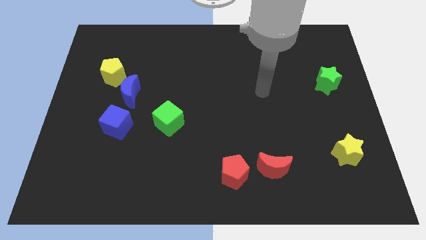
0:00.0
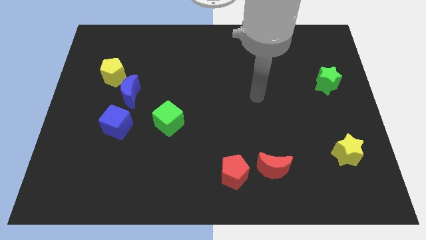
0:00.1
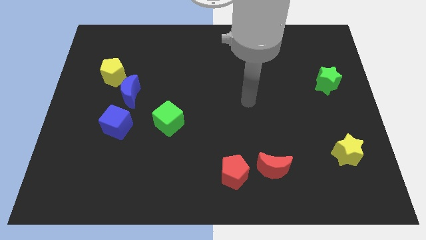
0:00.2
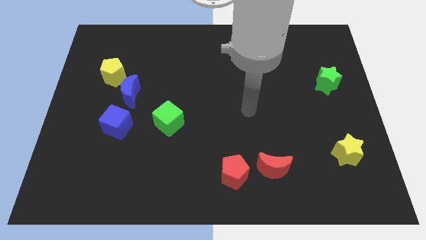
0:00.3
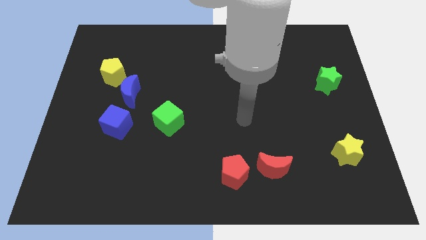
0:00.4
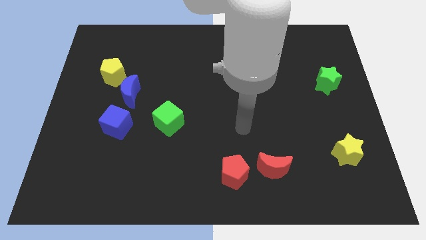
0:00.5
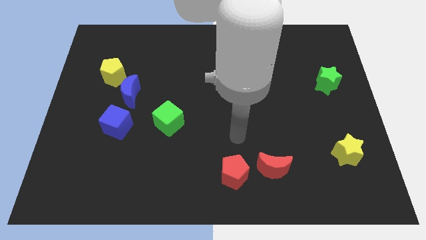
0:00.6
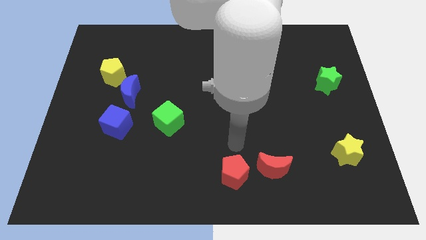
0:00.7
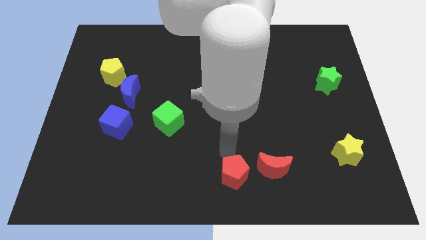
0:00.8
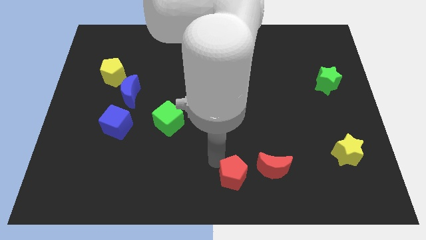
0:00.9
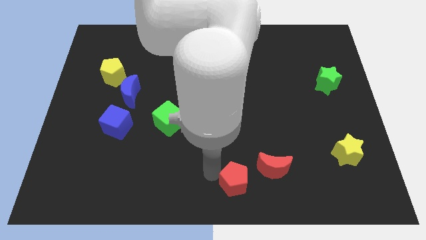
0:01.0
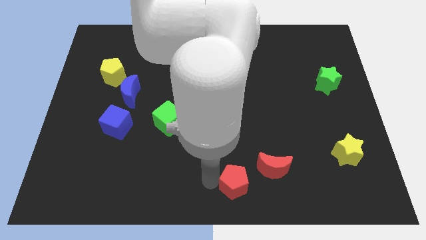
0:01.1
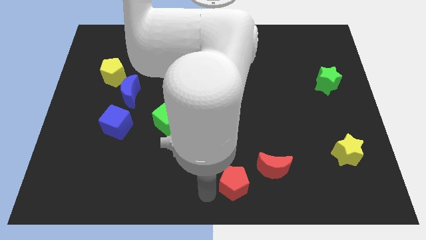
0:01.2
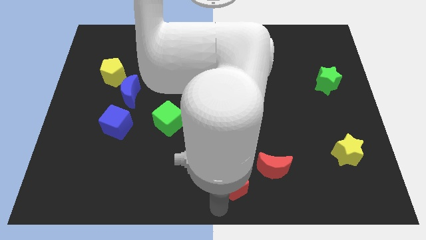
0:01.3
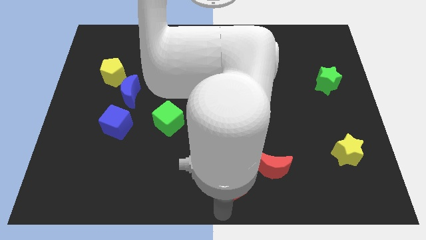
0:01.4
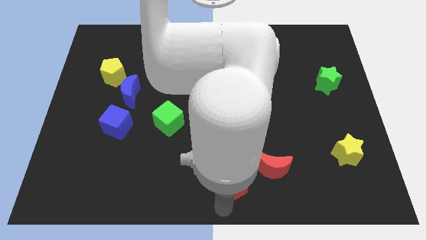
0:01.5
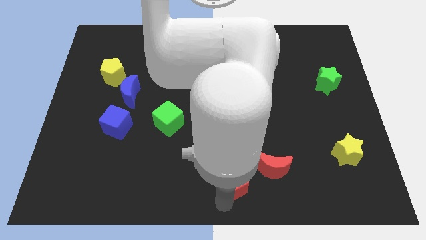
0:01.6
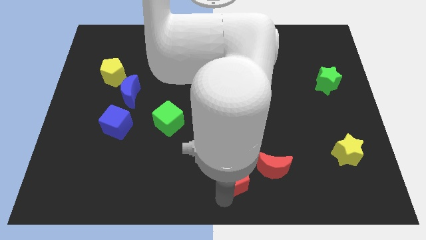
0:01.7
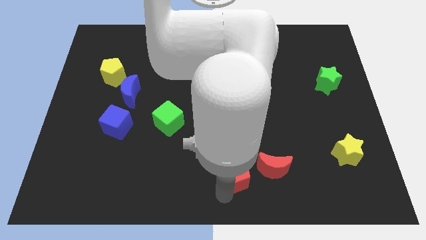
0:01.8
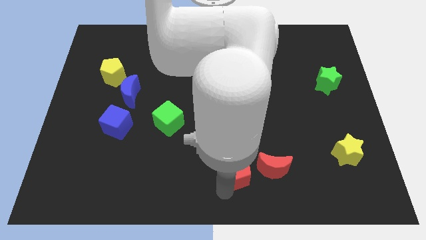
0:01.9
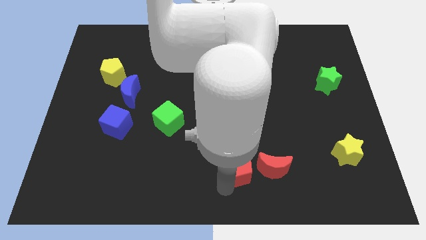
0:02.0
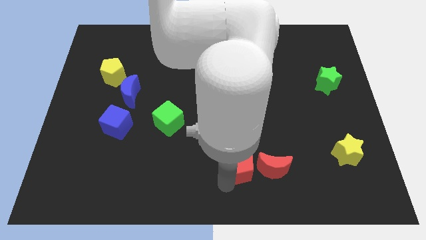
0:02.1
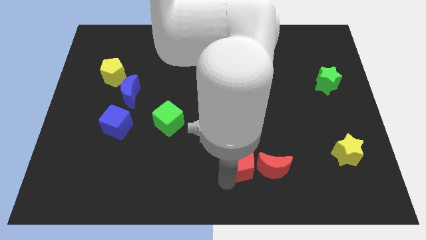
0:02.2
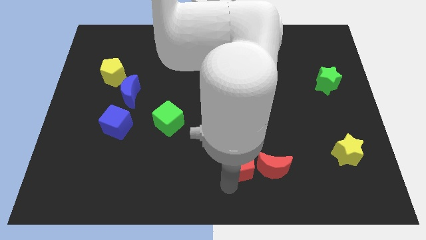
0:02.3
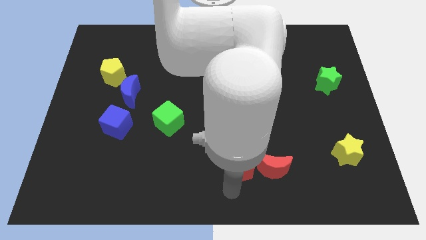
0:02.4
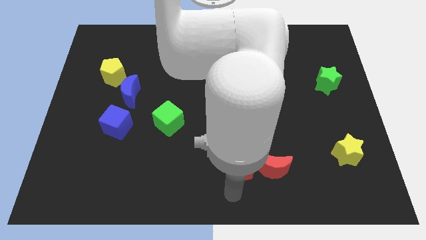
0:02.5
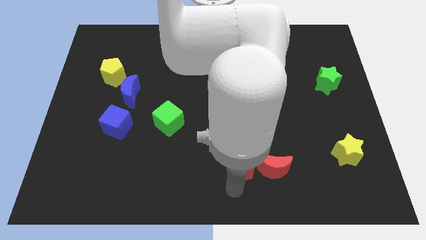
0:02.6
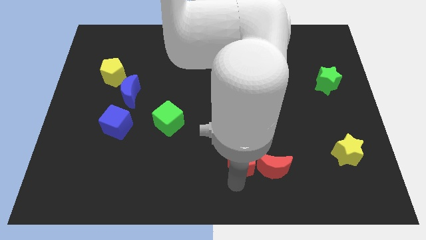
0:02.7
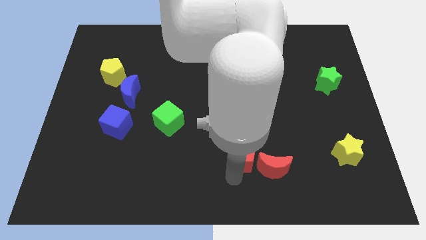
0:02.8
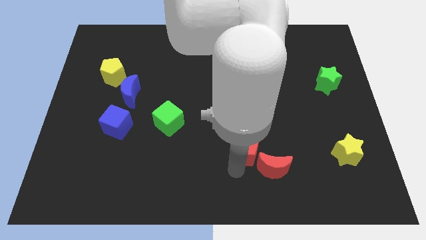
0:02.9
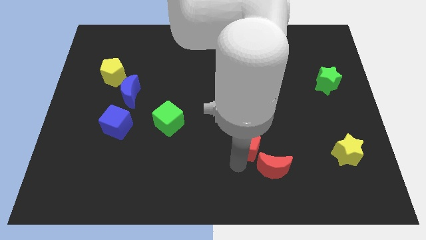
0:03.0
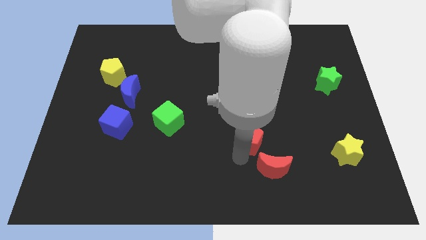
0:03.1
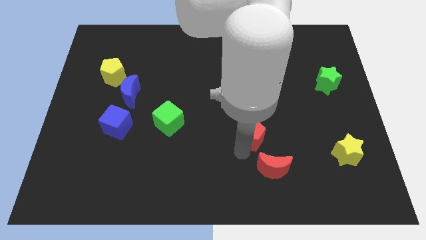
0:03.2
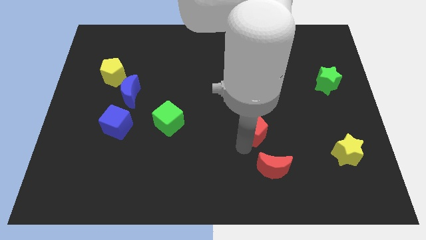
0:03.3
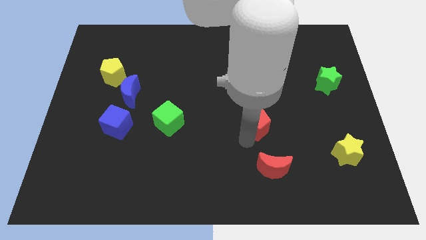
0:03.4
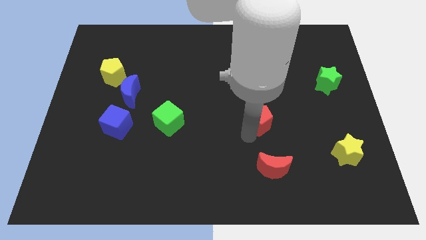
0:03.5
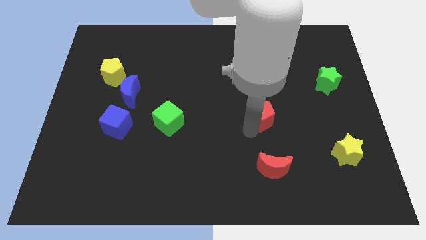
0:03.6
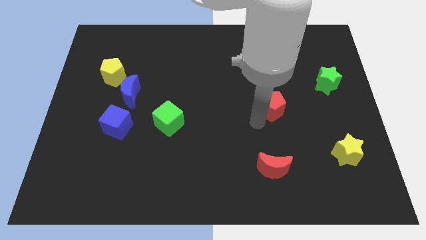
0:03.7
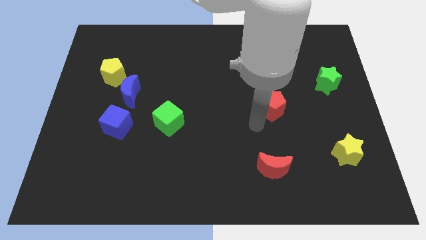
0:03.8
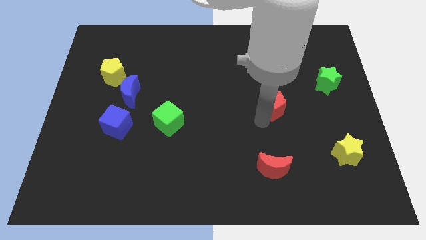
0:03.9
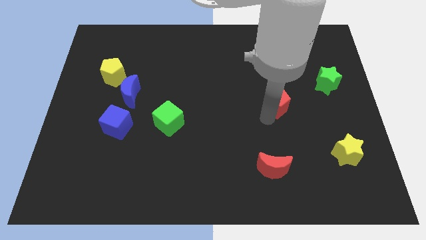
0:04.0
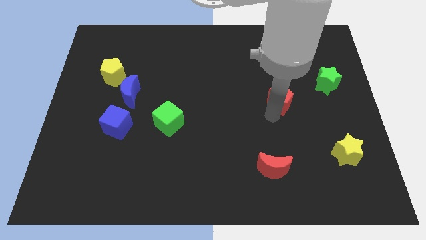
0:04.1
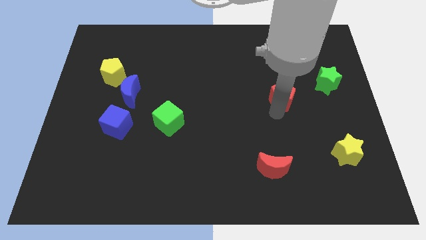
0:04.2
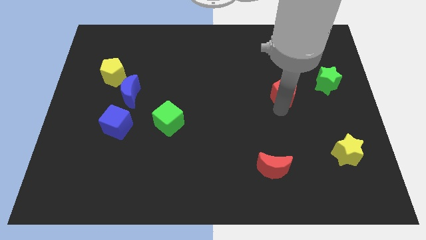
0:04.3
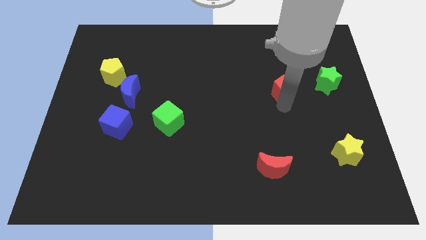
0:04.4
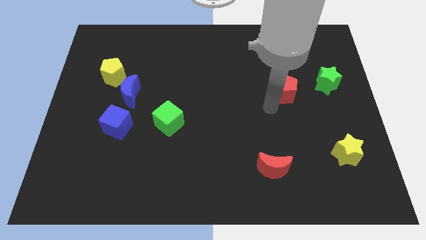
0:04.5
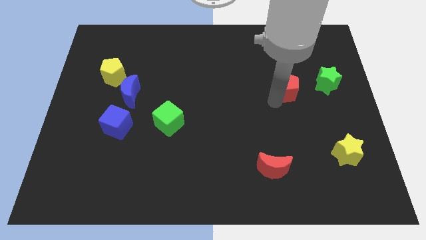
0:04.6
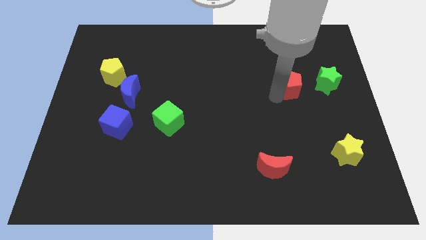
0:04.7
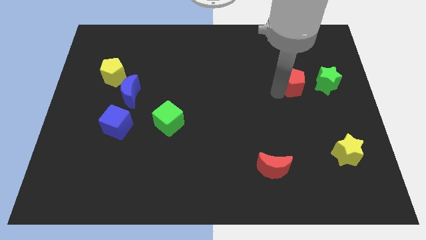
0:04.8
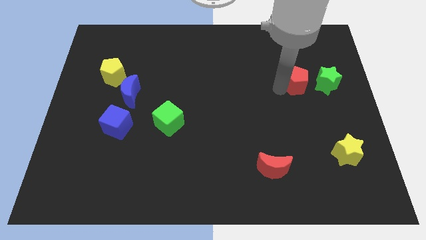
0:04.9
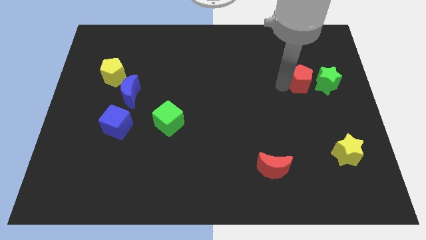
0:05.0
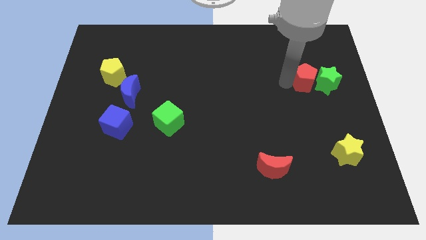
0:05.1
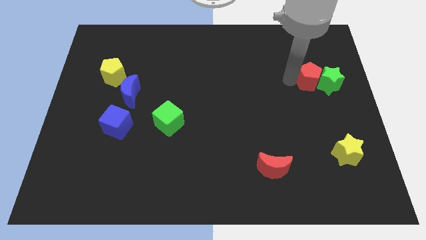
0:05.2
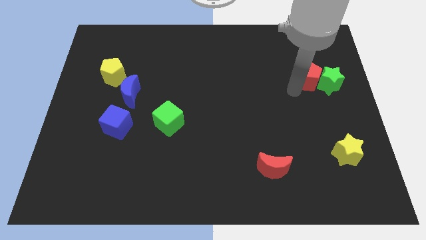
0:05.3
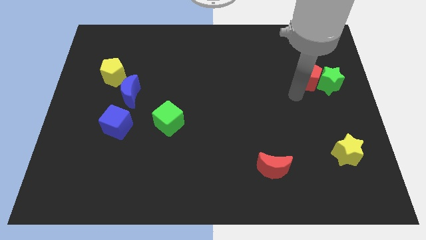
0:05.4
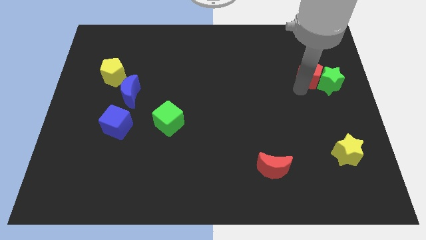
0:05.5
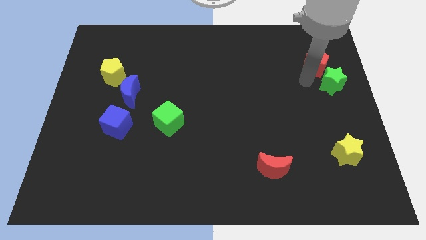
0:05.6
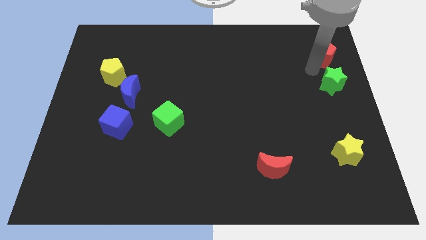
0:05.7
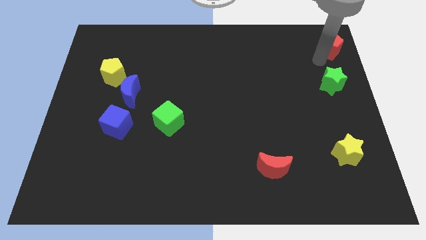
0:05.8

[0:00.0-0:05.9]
move the red pentagon to the top right corner

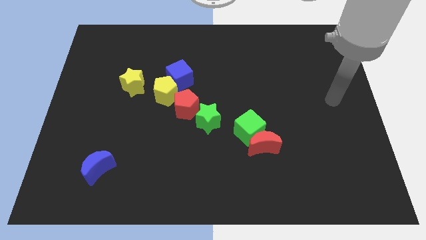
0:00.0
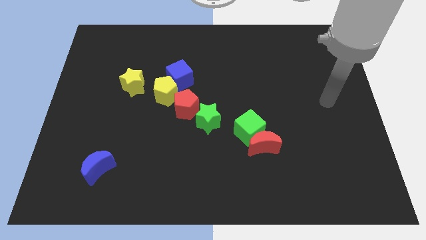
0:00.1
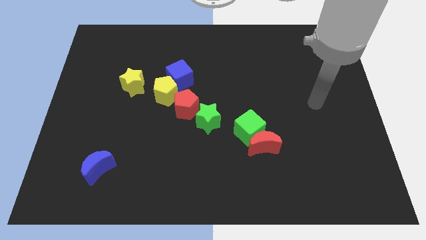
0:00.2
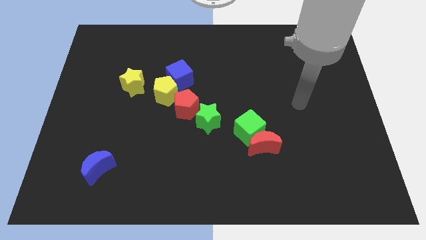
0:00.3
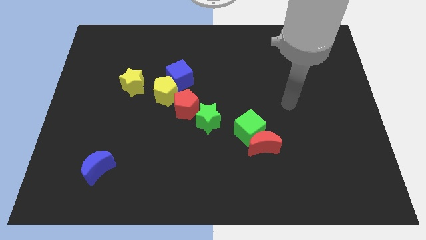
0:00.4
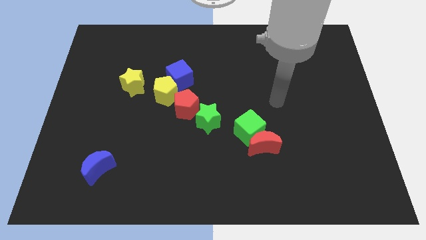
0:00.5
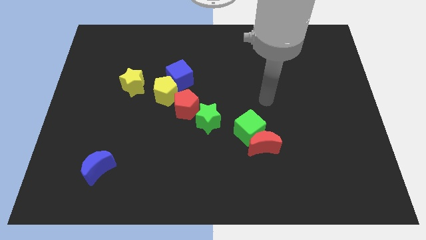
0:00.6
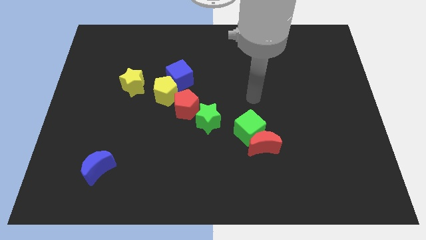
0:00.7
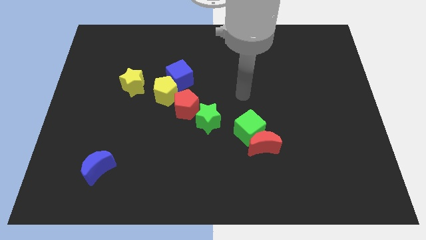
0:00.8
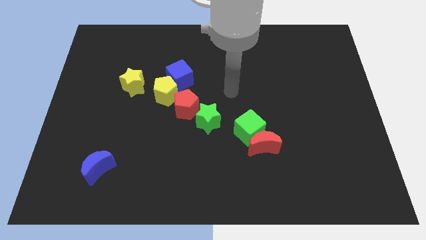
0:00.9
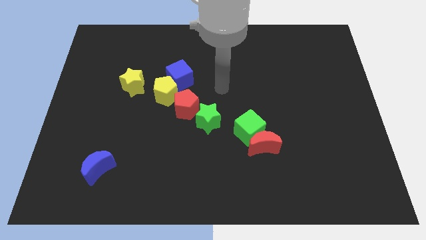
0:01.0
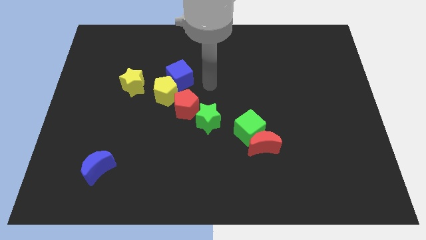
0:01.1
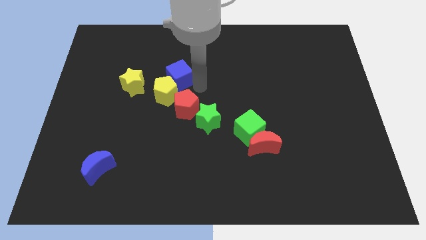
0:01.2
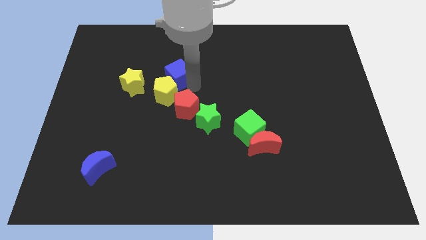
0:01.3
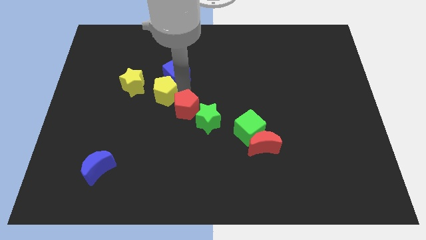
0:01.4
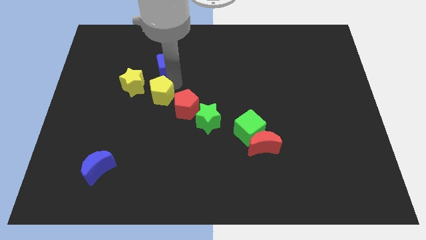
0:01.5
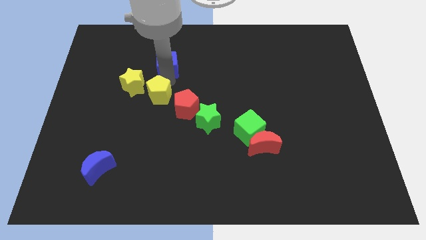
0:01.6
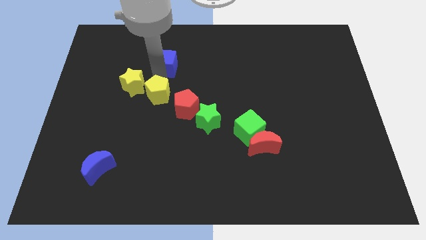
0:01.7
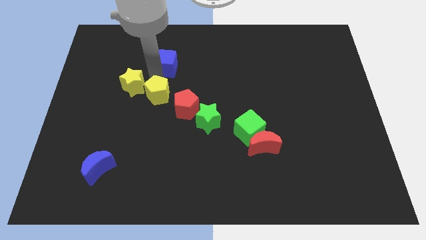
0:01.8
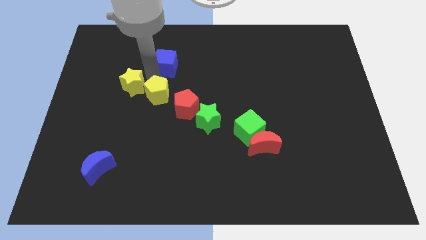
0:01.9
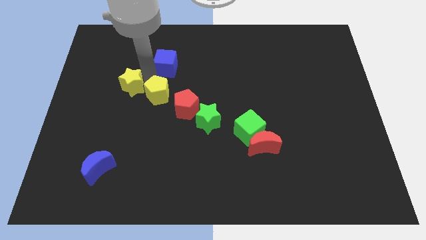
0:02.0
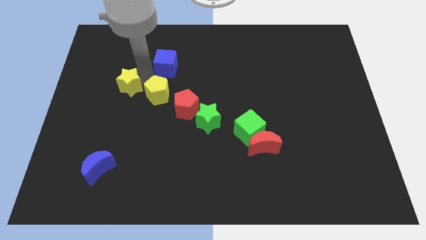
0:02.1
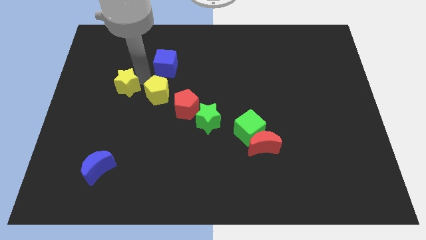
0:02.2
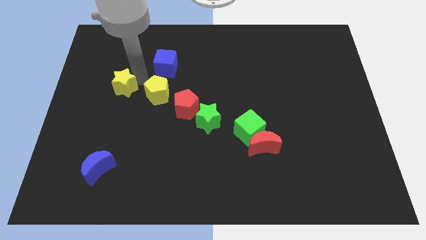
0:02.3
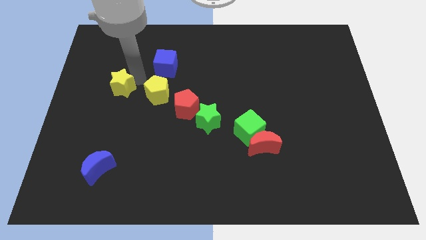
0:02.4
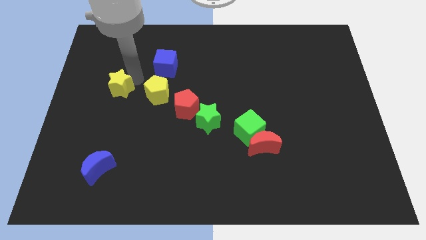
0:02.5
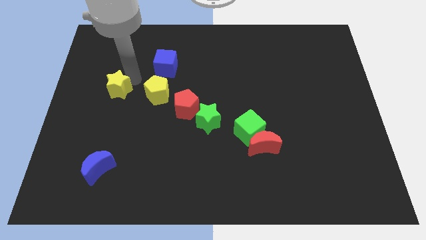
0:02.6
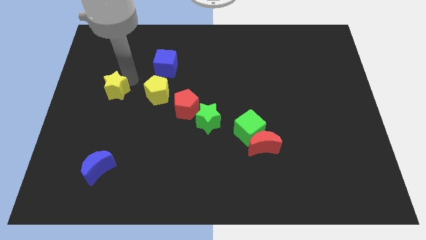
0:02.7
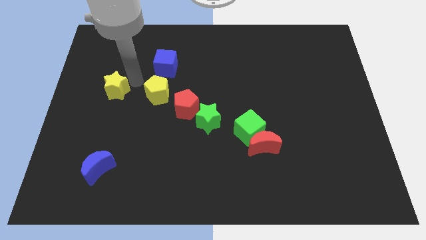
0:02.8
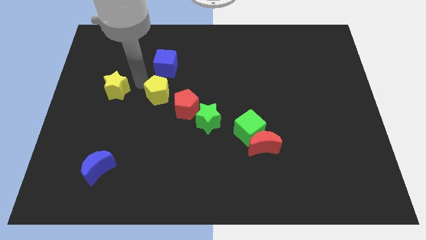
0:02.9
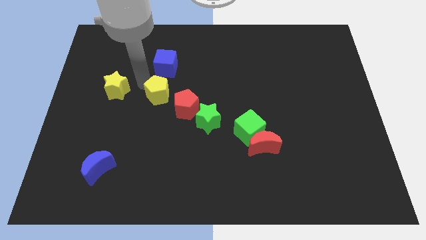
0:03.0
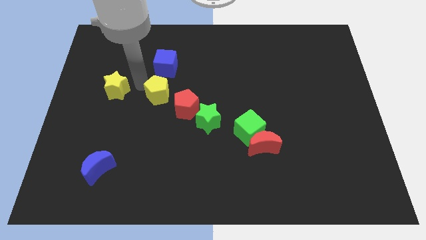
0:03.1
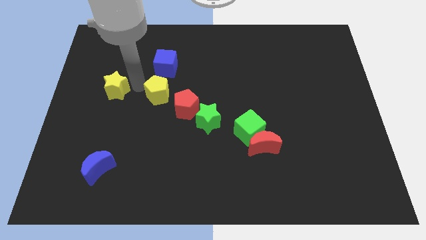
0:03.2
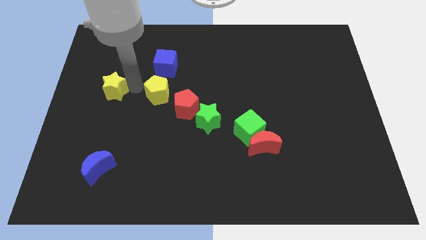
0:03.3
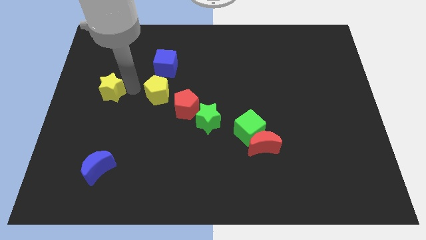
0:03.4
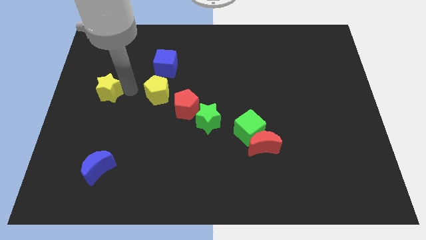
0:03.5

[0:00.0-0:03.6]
put the yellow star to the center left
